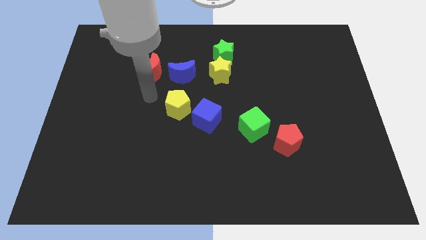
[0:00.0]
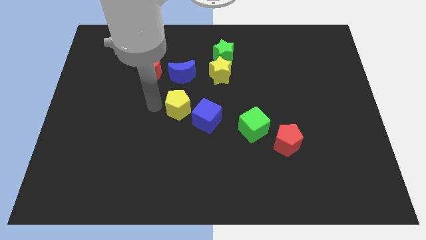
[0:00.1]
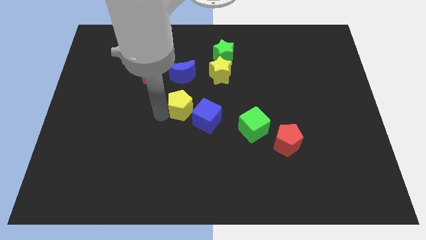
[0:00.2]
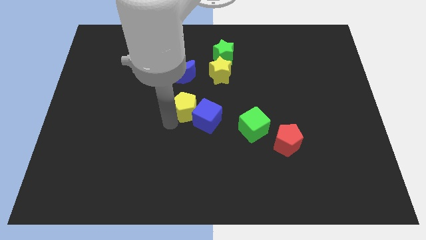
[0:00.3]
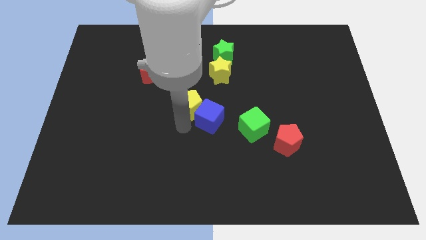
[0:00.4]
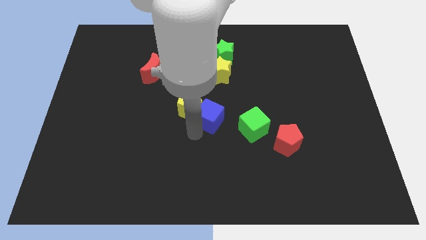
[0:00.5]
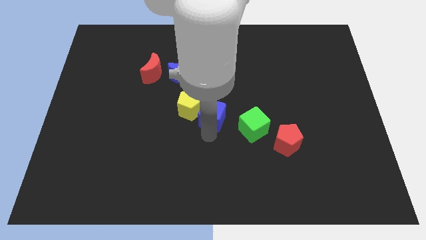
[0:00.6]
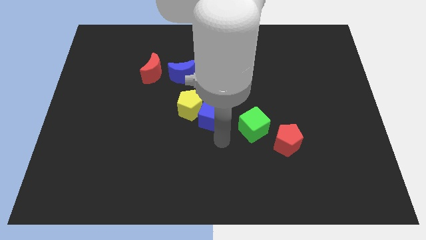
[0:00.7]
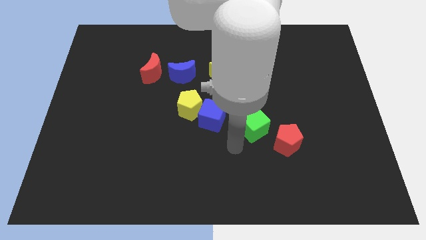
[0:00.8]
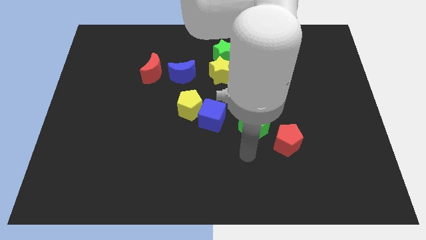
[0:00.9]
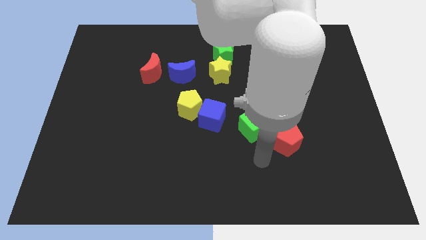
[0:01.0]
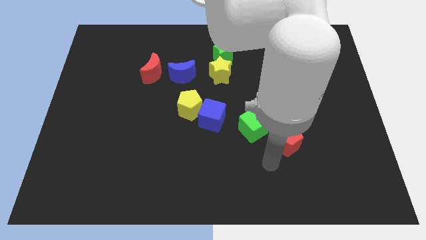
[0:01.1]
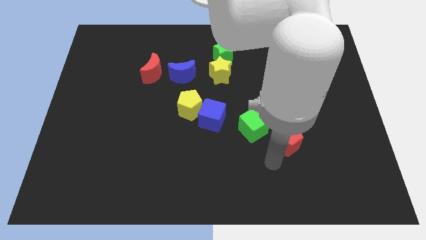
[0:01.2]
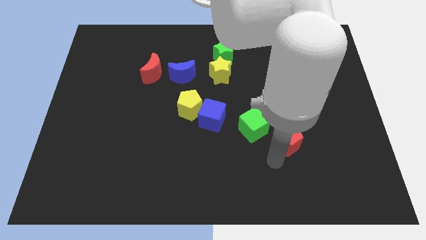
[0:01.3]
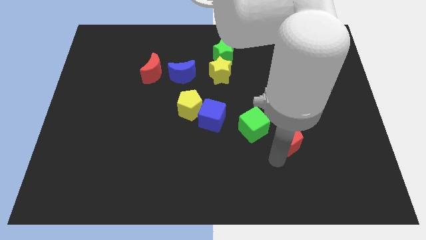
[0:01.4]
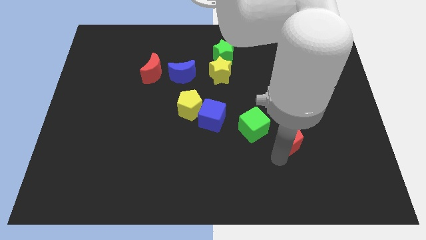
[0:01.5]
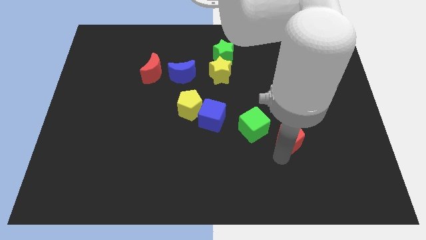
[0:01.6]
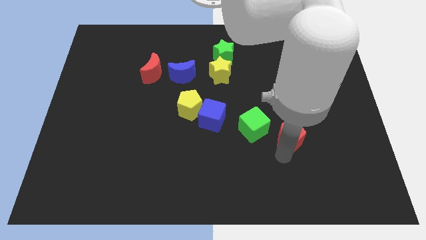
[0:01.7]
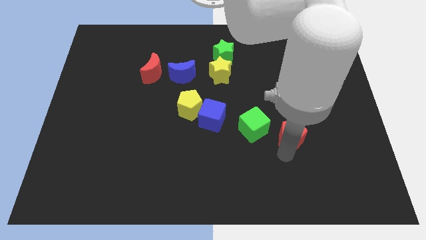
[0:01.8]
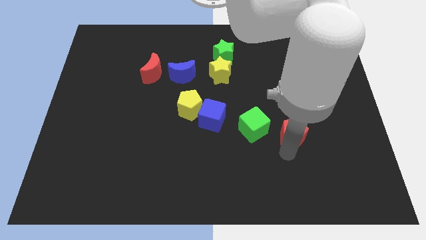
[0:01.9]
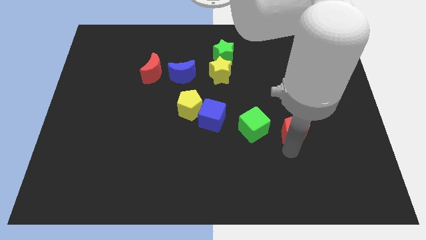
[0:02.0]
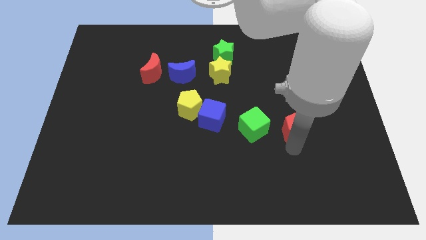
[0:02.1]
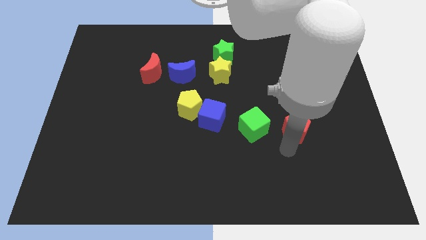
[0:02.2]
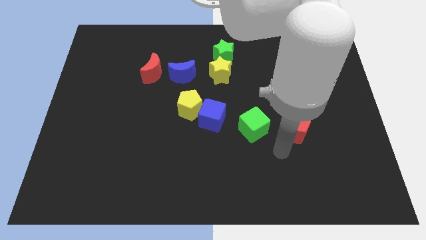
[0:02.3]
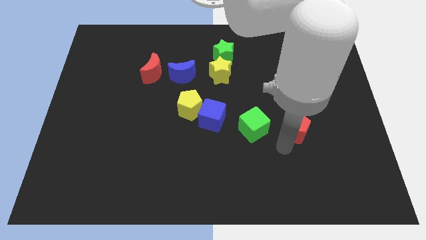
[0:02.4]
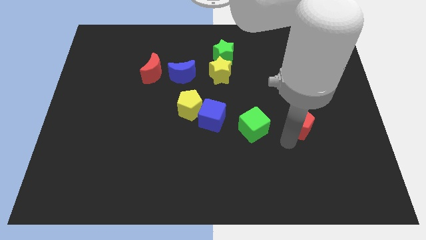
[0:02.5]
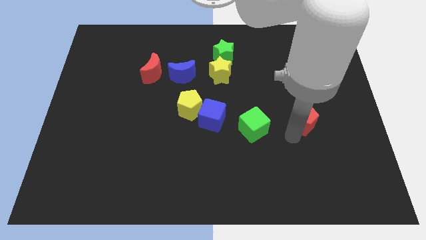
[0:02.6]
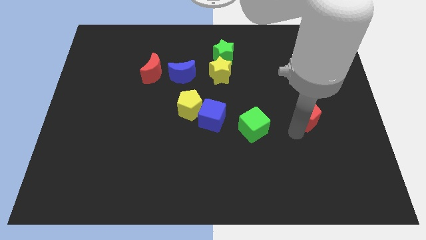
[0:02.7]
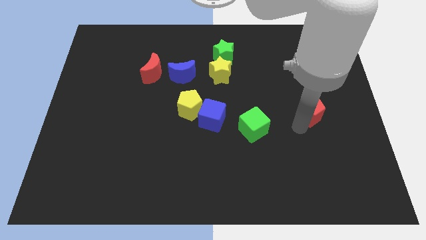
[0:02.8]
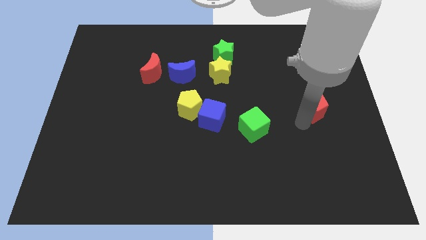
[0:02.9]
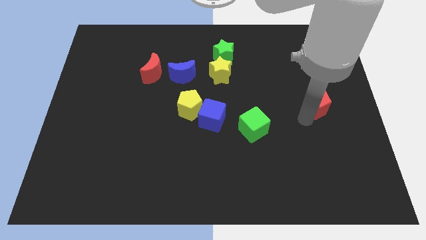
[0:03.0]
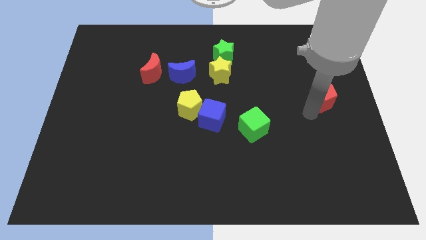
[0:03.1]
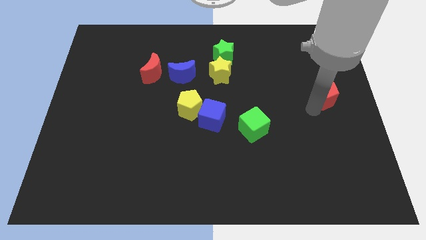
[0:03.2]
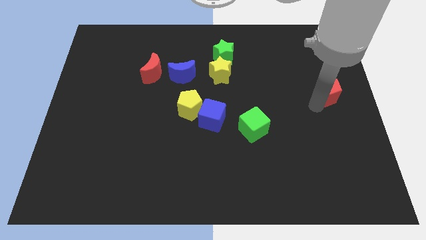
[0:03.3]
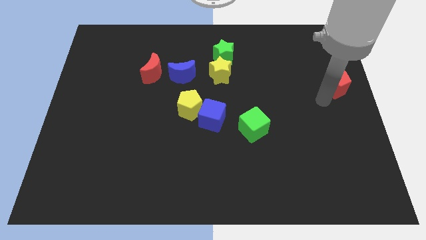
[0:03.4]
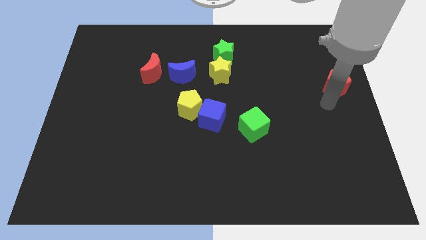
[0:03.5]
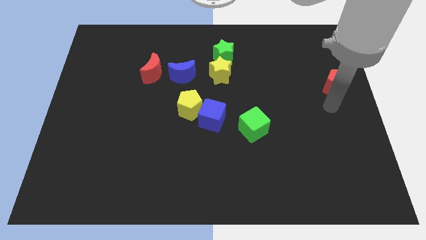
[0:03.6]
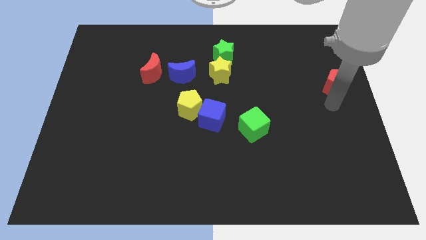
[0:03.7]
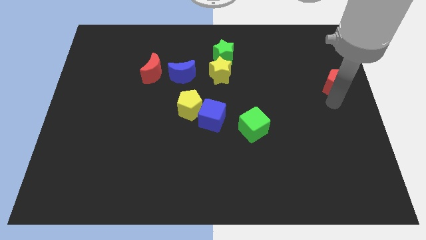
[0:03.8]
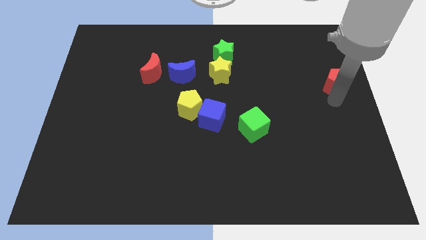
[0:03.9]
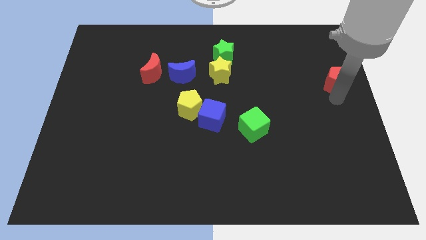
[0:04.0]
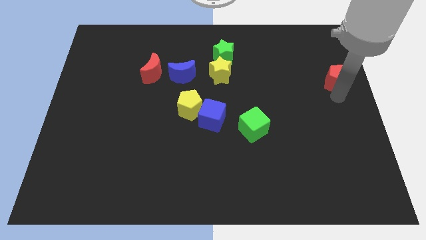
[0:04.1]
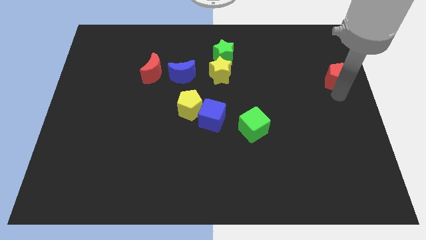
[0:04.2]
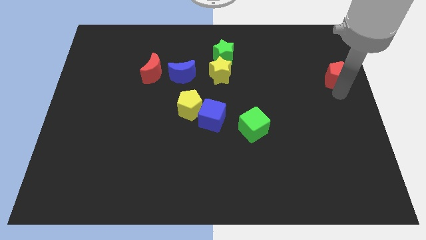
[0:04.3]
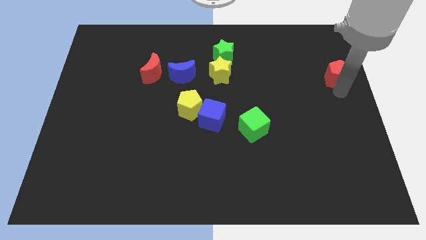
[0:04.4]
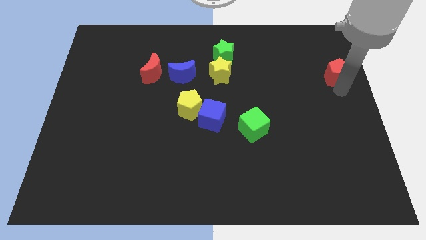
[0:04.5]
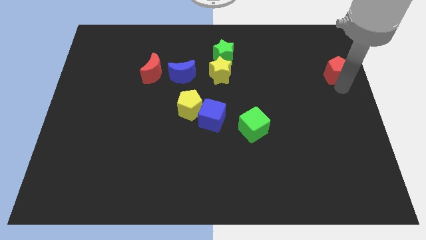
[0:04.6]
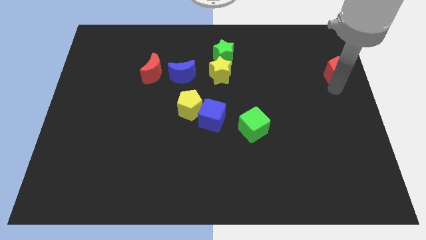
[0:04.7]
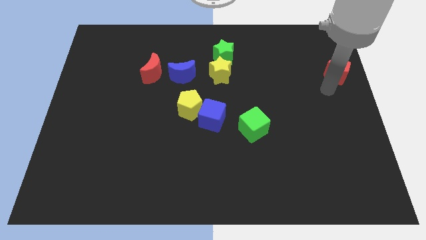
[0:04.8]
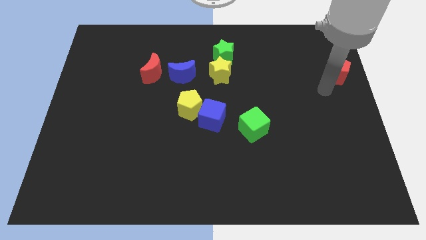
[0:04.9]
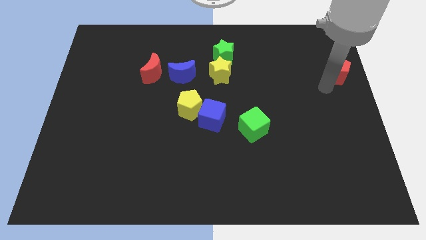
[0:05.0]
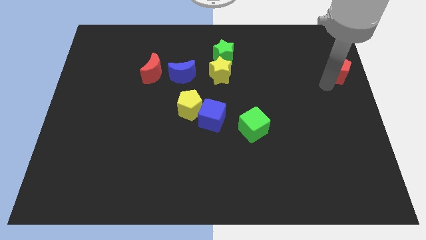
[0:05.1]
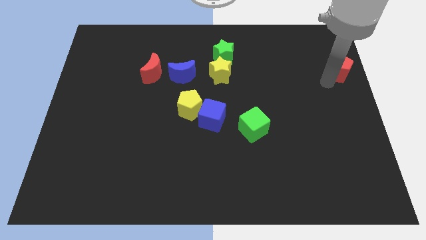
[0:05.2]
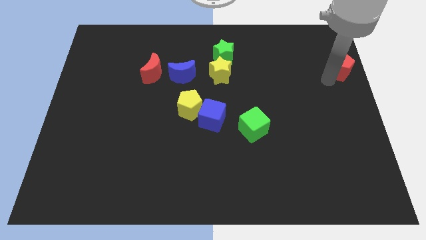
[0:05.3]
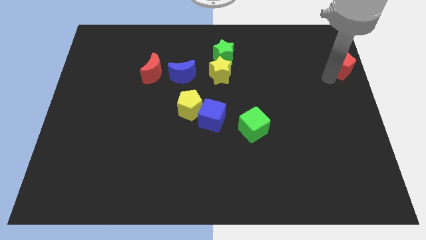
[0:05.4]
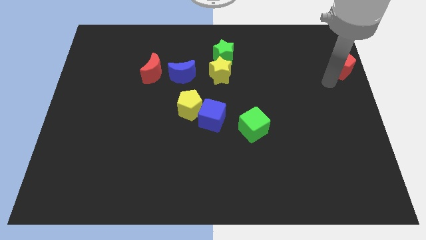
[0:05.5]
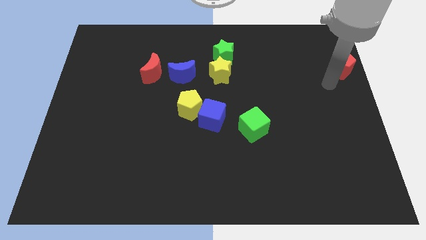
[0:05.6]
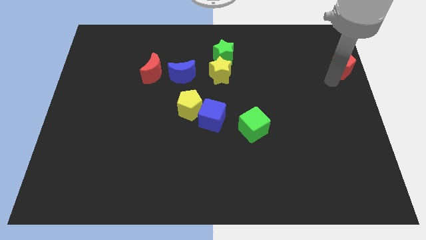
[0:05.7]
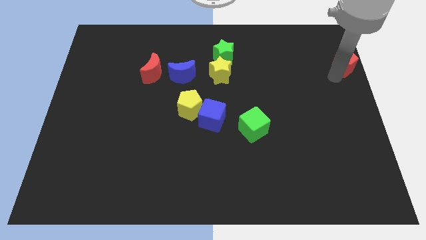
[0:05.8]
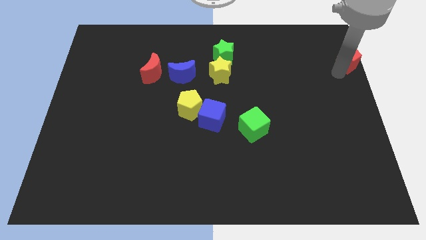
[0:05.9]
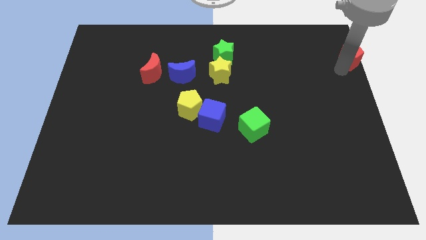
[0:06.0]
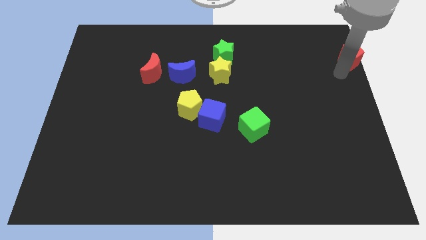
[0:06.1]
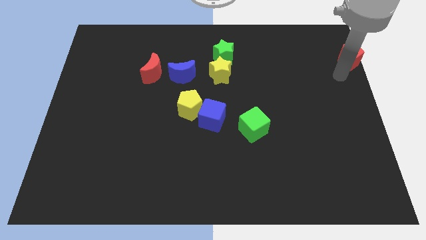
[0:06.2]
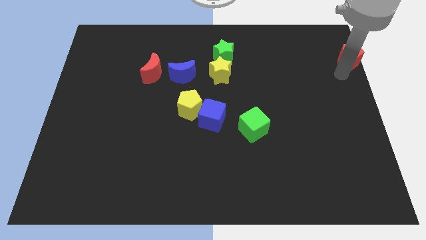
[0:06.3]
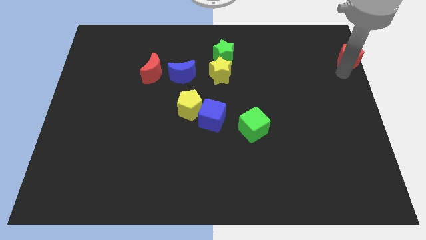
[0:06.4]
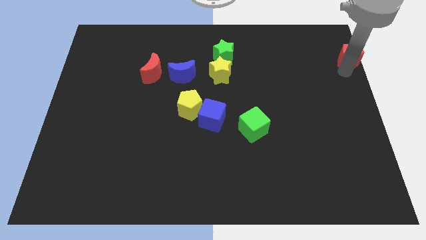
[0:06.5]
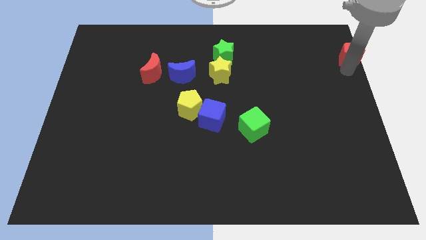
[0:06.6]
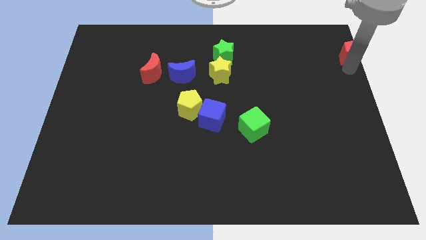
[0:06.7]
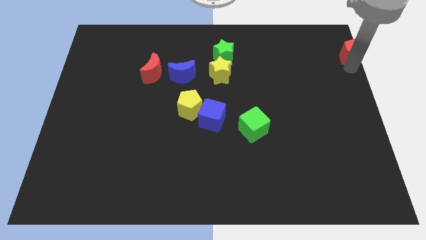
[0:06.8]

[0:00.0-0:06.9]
put the red pentagon to the top right of the board
